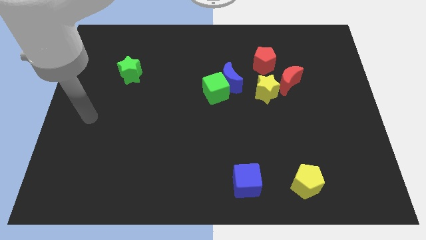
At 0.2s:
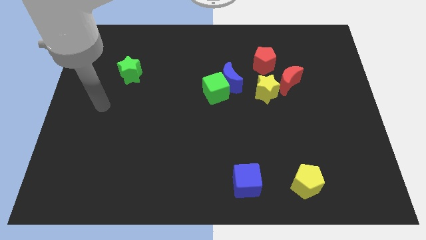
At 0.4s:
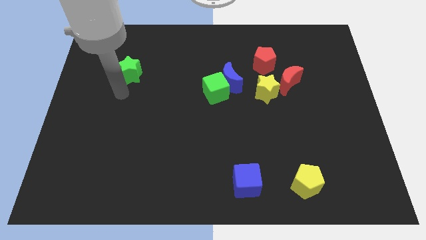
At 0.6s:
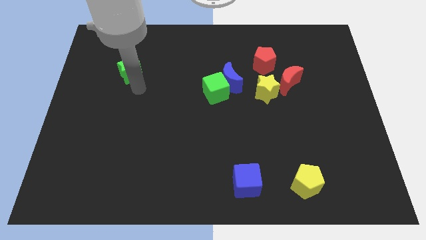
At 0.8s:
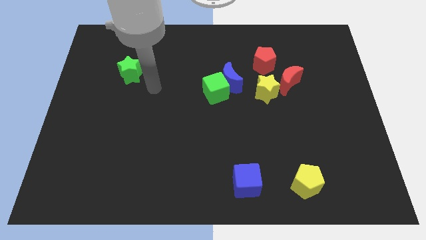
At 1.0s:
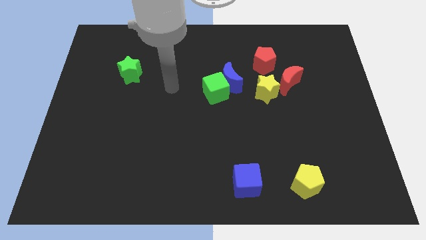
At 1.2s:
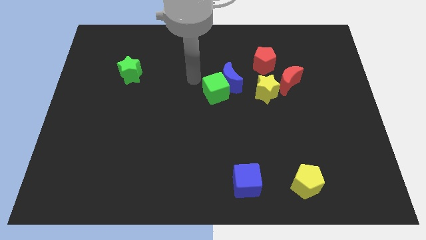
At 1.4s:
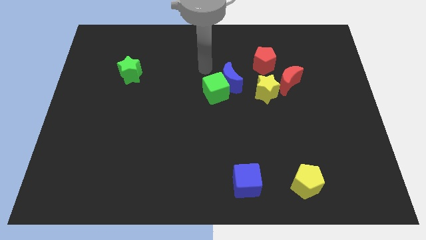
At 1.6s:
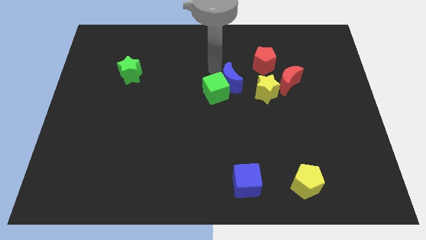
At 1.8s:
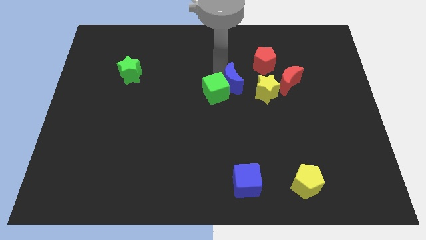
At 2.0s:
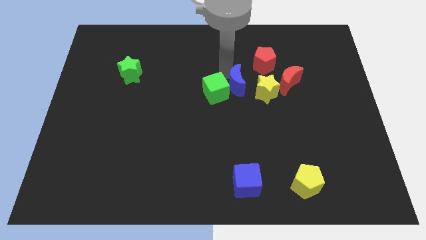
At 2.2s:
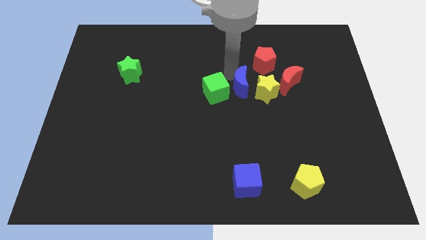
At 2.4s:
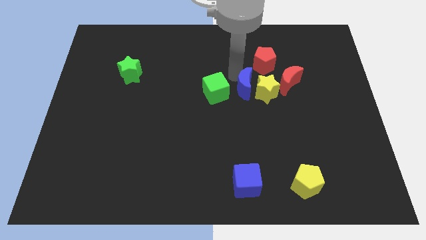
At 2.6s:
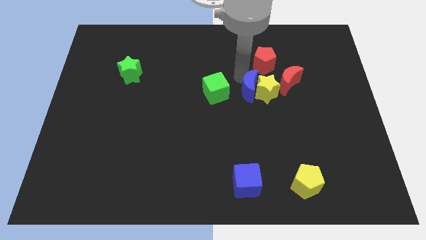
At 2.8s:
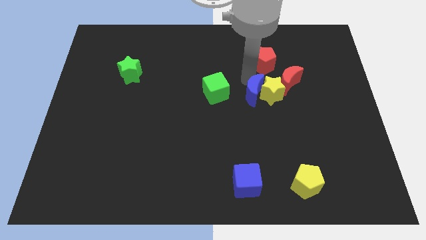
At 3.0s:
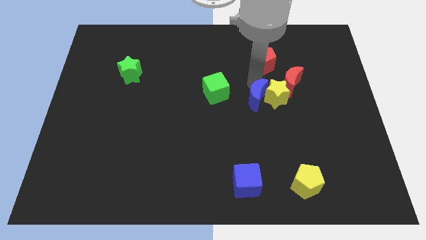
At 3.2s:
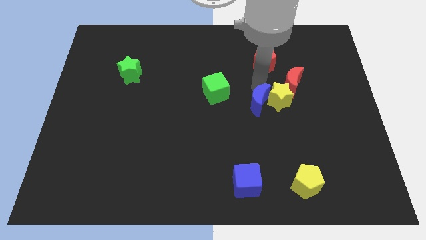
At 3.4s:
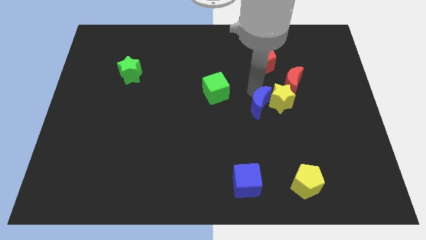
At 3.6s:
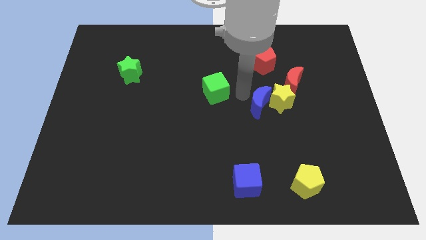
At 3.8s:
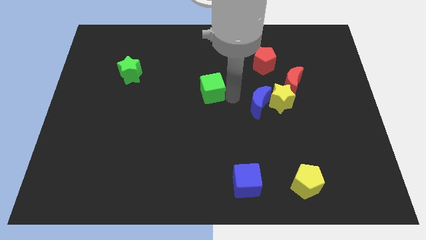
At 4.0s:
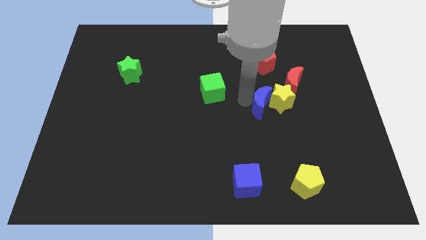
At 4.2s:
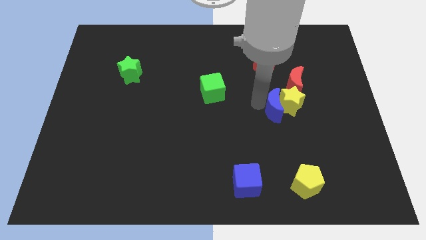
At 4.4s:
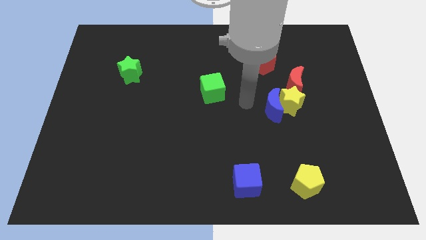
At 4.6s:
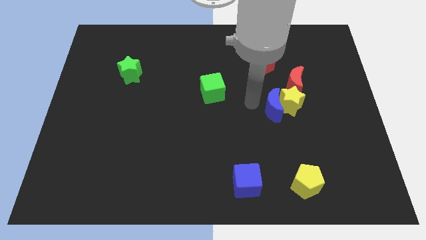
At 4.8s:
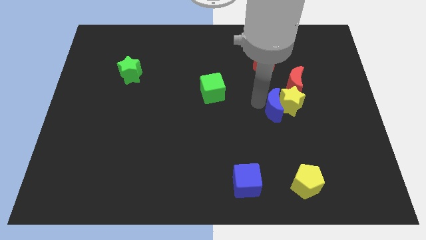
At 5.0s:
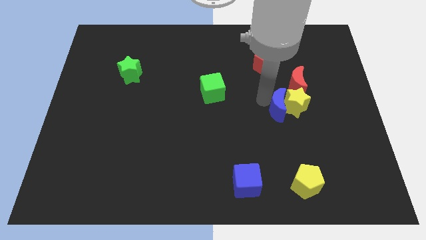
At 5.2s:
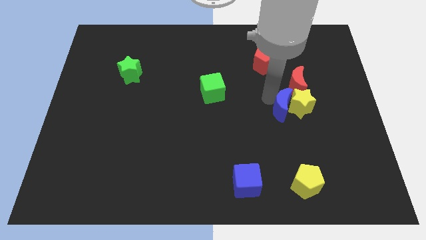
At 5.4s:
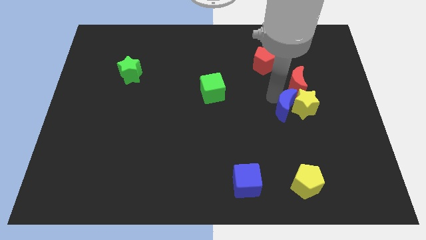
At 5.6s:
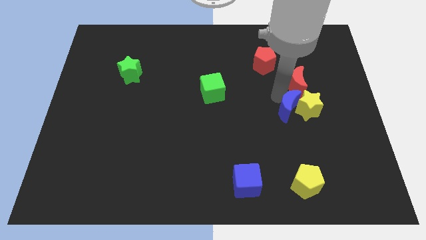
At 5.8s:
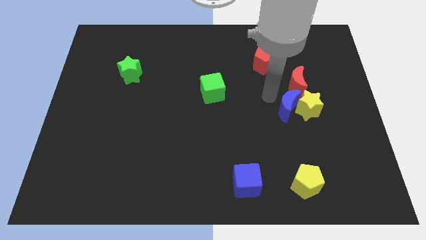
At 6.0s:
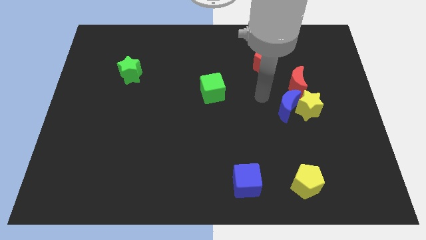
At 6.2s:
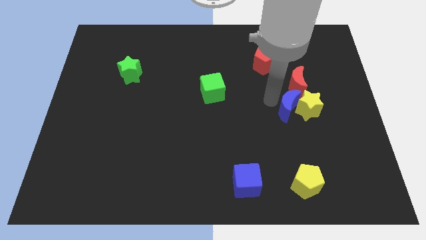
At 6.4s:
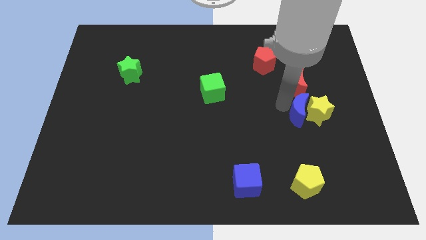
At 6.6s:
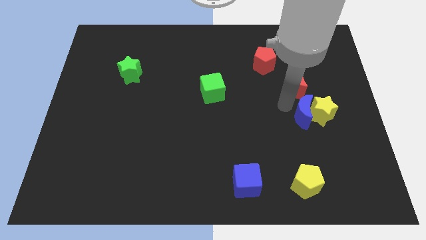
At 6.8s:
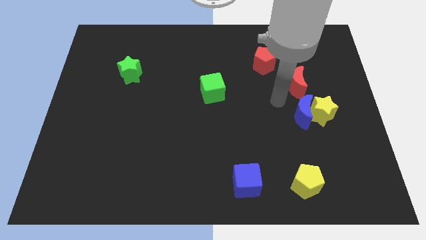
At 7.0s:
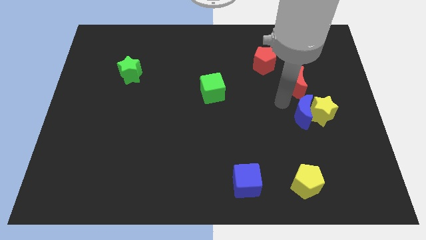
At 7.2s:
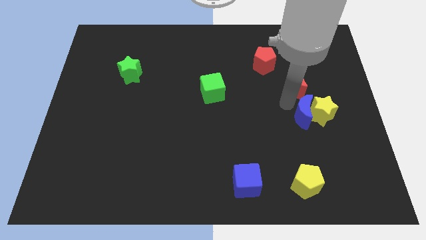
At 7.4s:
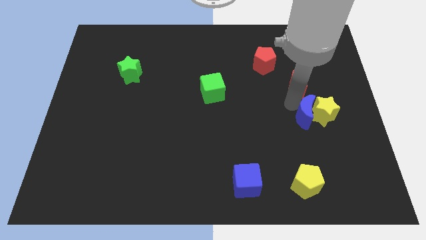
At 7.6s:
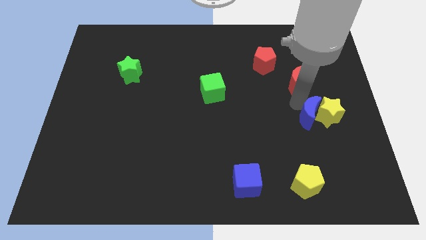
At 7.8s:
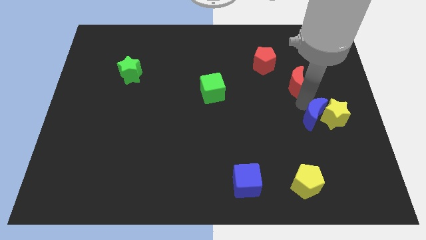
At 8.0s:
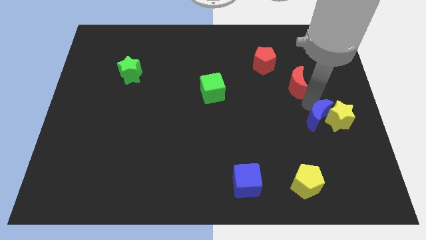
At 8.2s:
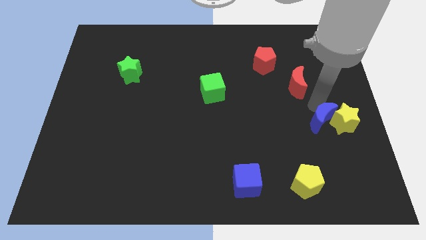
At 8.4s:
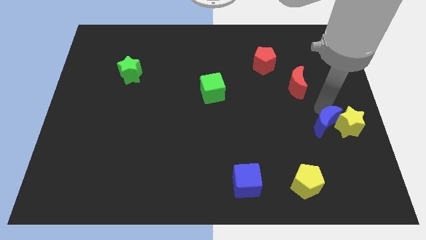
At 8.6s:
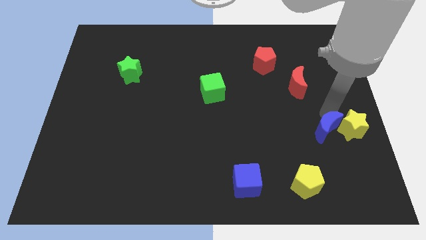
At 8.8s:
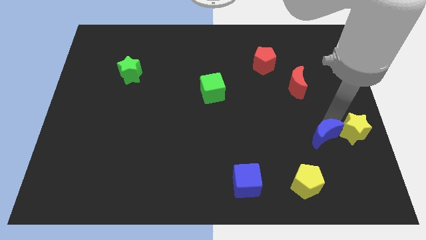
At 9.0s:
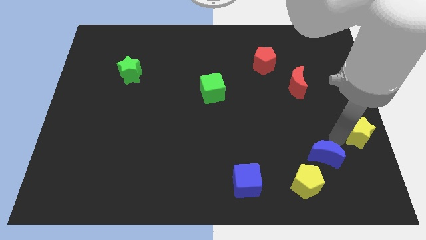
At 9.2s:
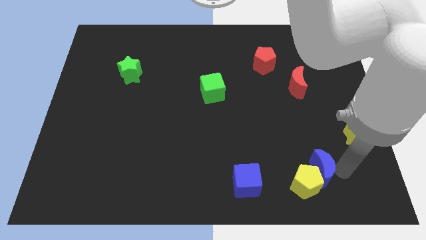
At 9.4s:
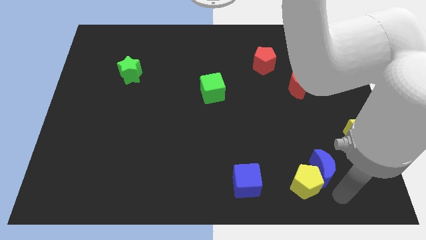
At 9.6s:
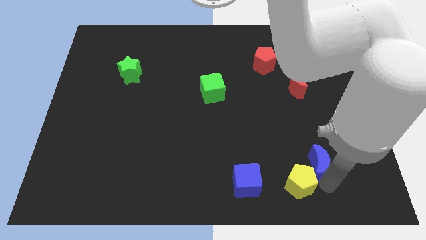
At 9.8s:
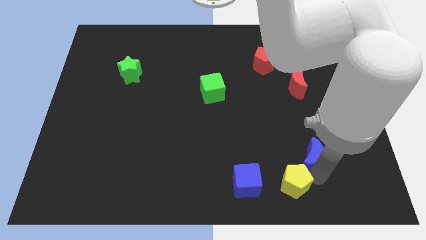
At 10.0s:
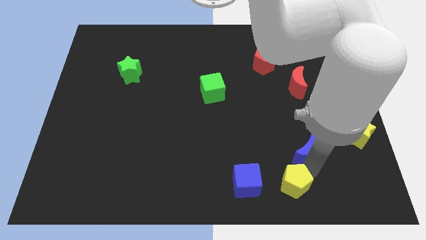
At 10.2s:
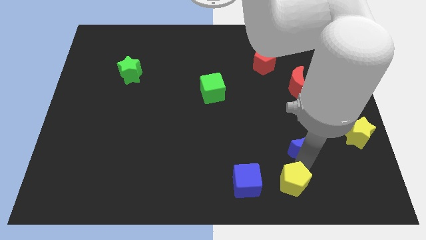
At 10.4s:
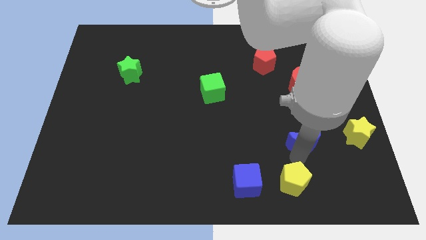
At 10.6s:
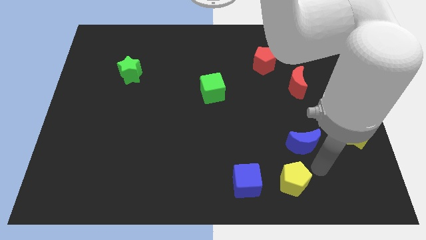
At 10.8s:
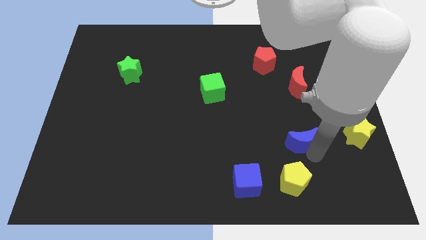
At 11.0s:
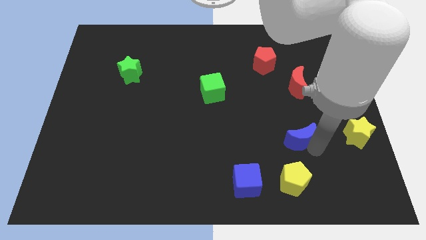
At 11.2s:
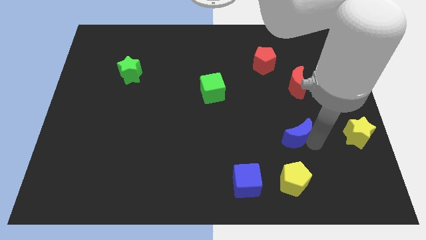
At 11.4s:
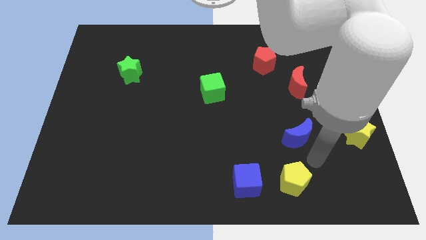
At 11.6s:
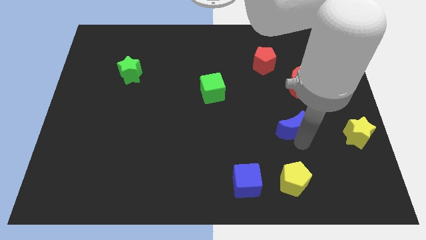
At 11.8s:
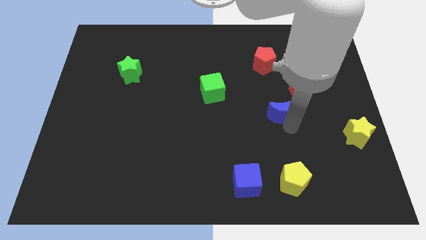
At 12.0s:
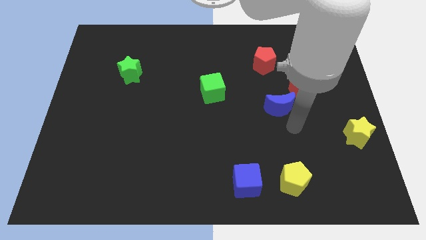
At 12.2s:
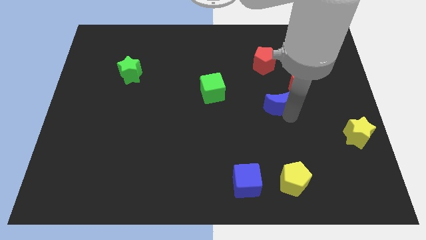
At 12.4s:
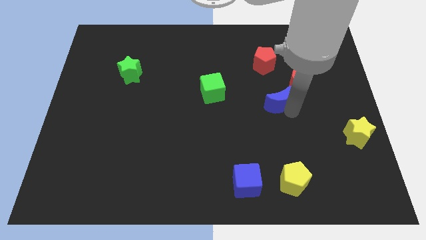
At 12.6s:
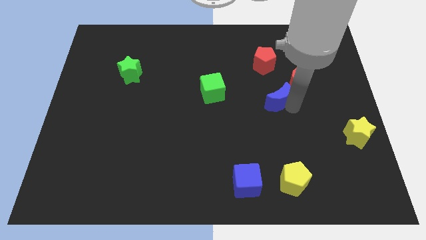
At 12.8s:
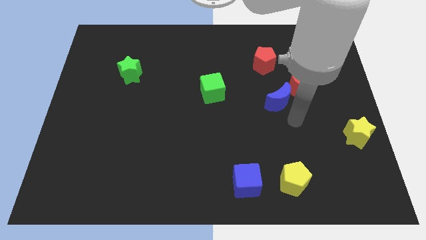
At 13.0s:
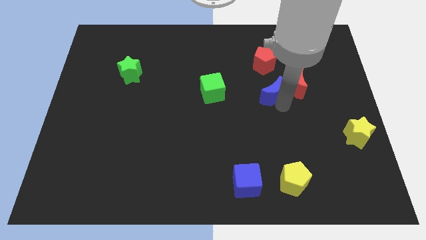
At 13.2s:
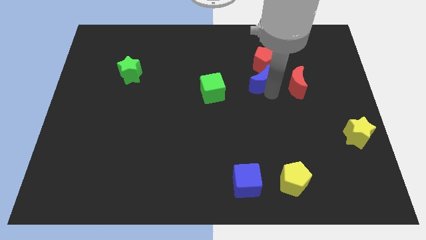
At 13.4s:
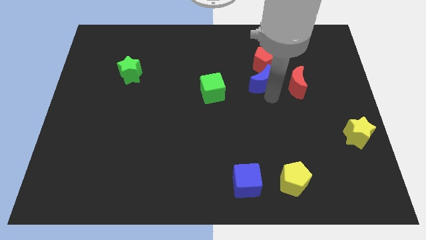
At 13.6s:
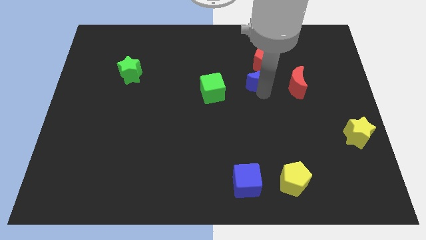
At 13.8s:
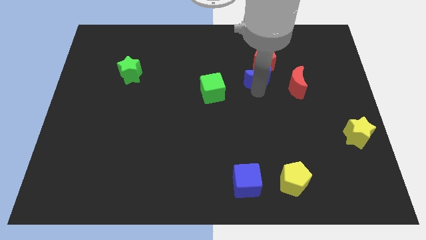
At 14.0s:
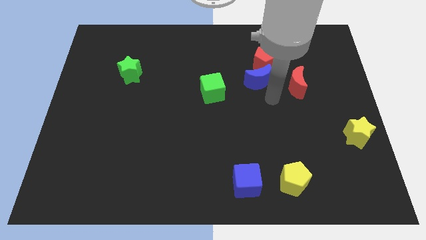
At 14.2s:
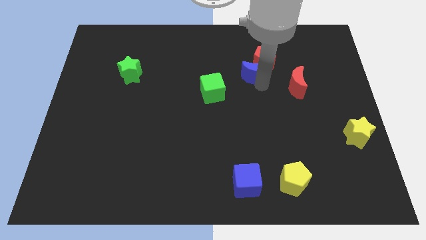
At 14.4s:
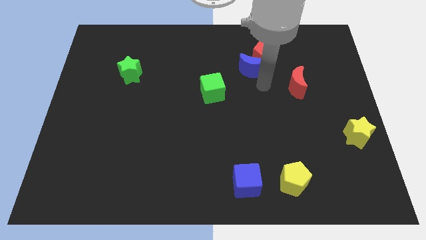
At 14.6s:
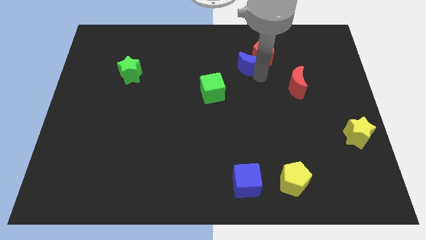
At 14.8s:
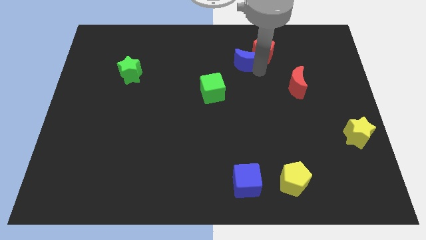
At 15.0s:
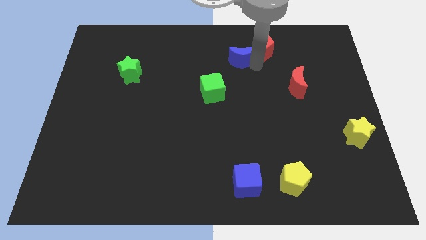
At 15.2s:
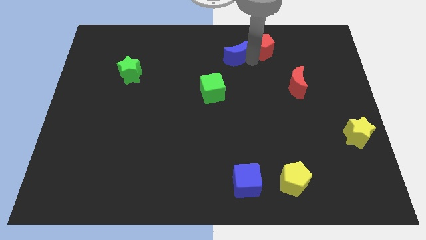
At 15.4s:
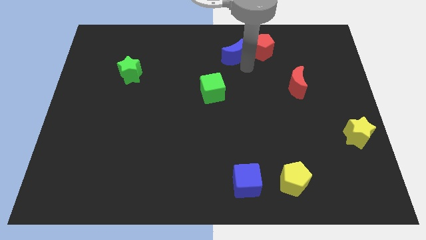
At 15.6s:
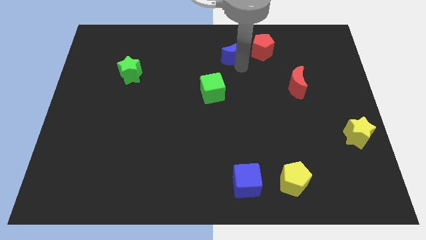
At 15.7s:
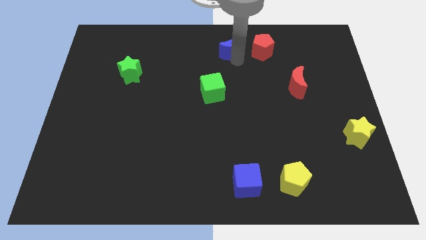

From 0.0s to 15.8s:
push the blue moon to the towards your base
